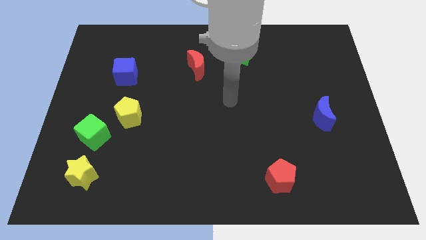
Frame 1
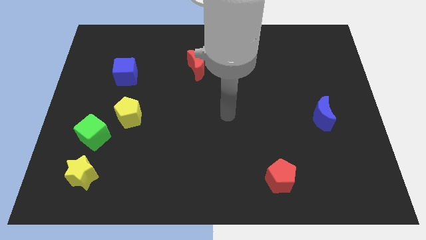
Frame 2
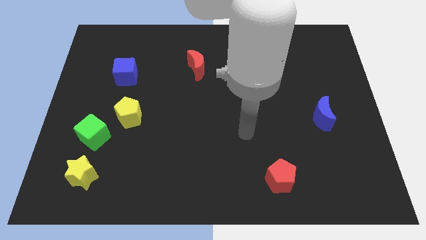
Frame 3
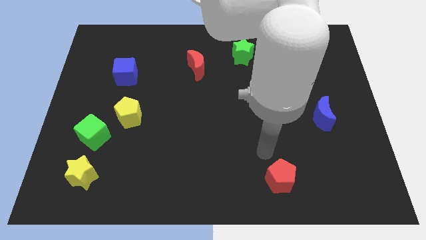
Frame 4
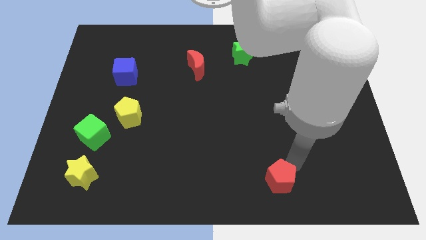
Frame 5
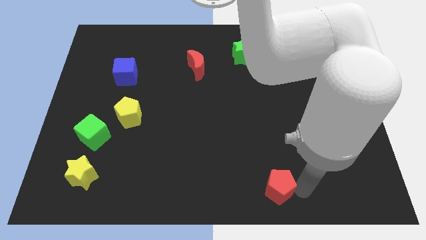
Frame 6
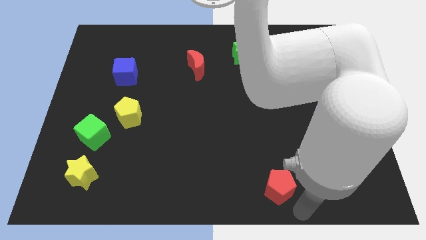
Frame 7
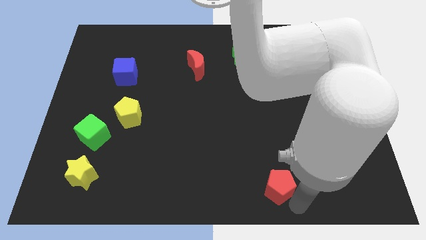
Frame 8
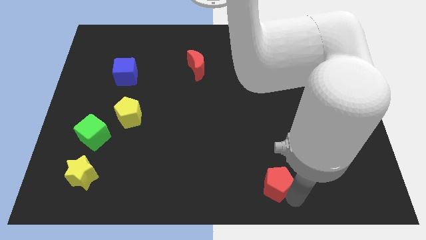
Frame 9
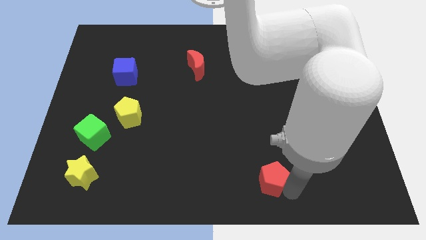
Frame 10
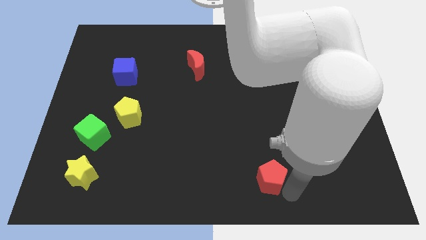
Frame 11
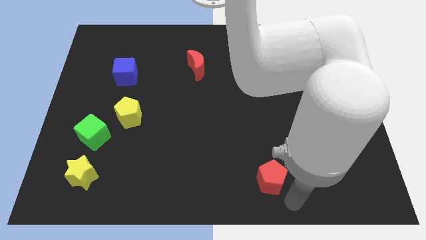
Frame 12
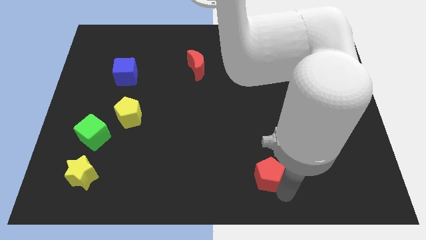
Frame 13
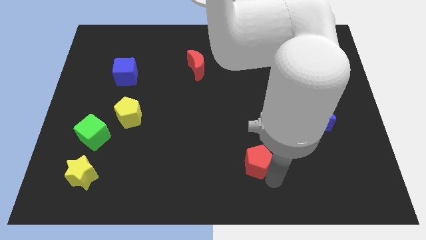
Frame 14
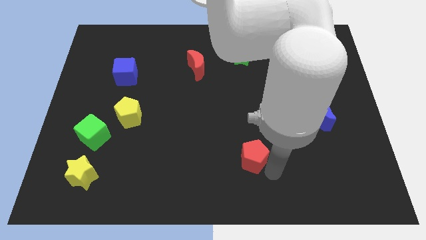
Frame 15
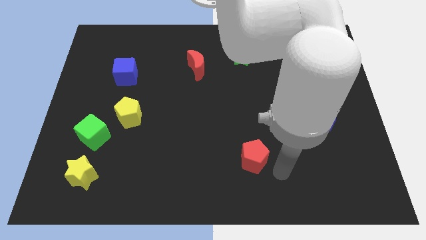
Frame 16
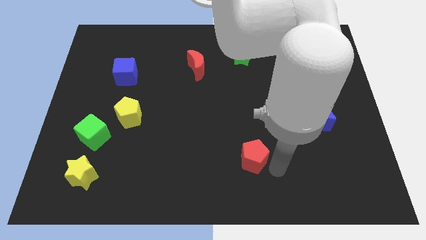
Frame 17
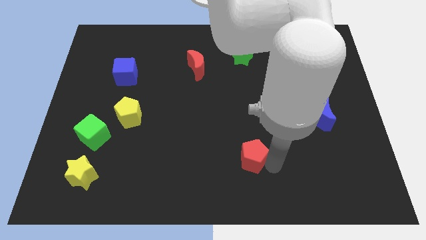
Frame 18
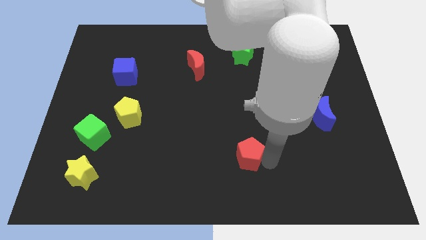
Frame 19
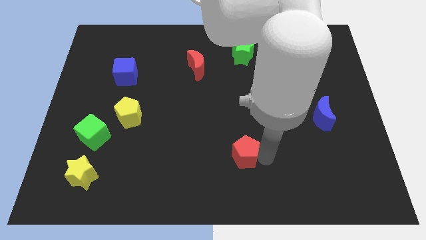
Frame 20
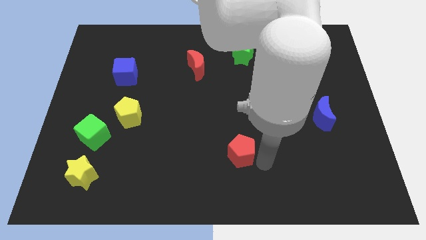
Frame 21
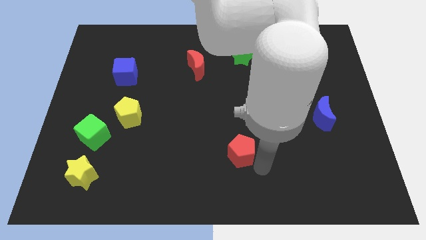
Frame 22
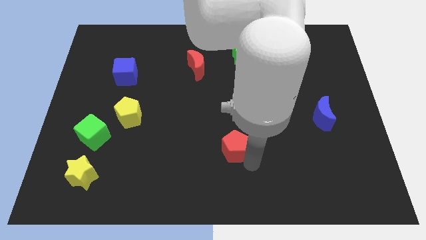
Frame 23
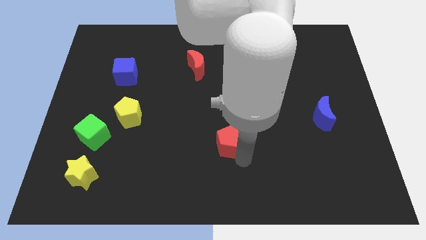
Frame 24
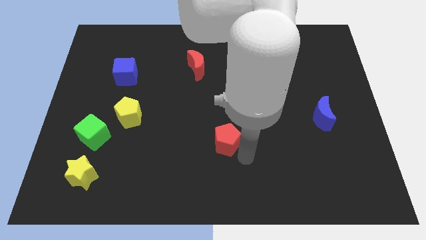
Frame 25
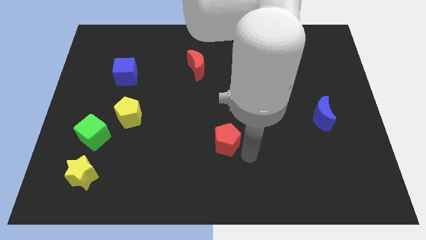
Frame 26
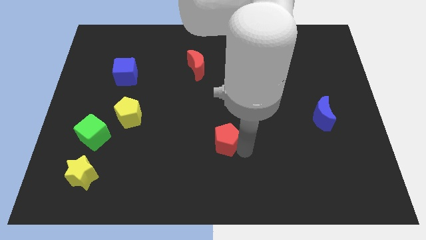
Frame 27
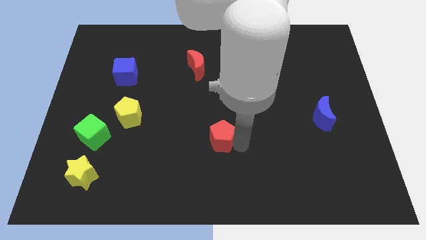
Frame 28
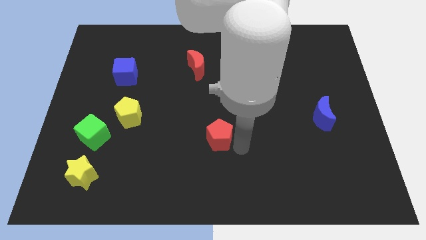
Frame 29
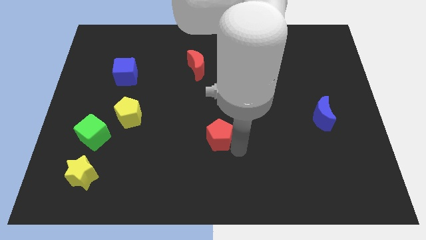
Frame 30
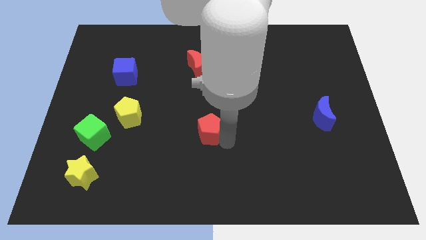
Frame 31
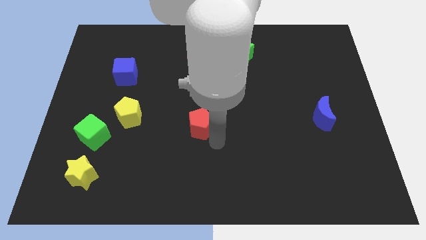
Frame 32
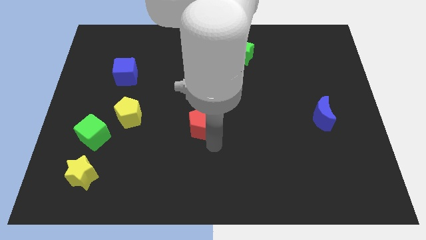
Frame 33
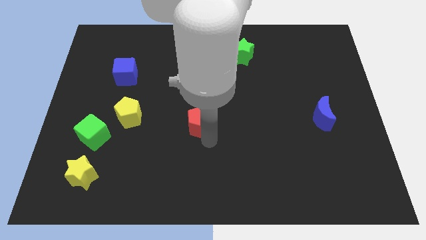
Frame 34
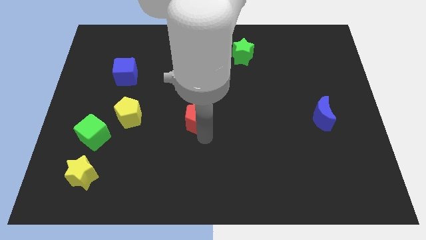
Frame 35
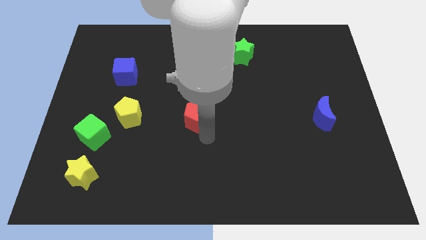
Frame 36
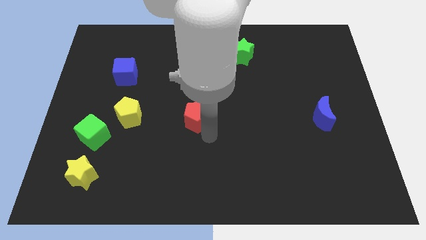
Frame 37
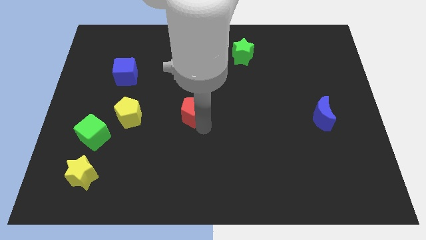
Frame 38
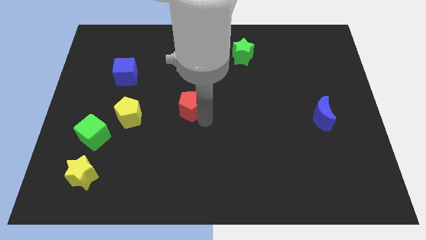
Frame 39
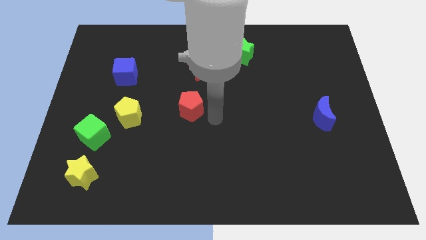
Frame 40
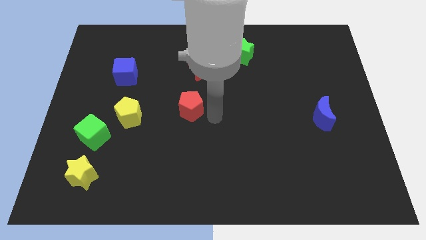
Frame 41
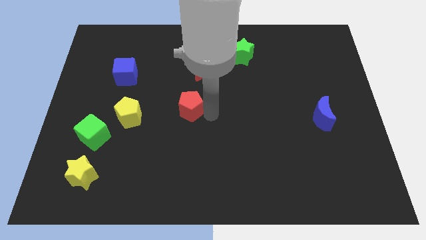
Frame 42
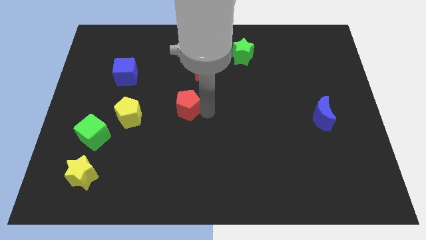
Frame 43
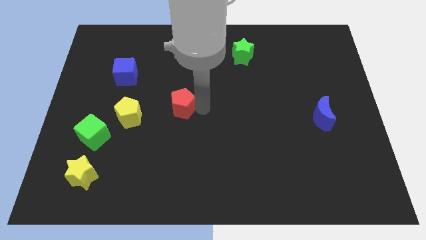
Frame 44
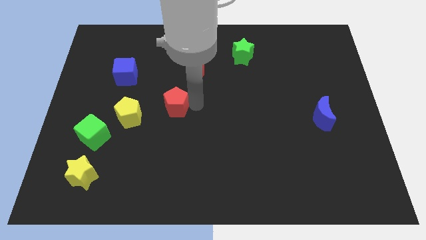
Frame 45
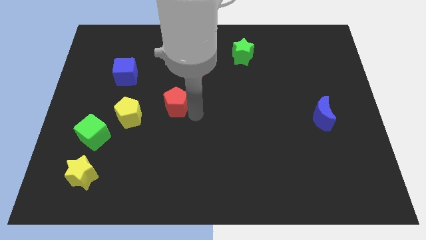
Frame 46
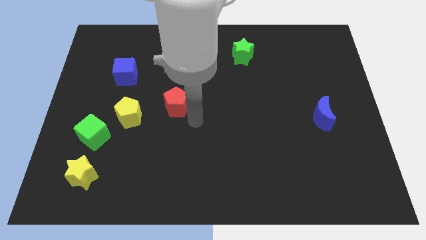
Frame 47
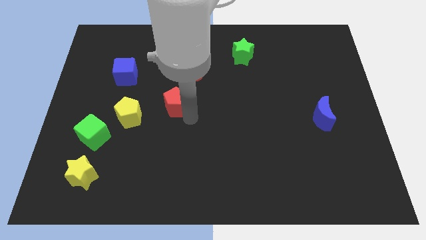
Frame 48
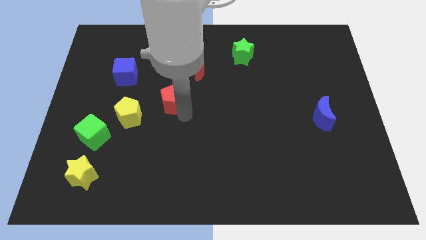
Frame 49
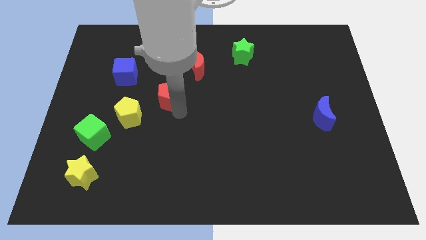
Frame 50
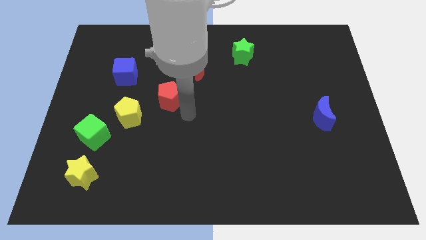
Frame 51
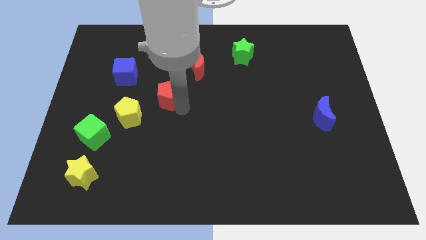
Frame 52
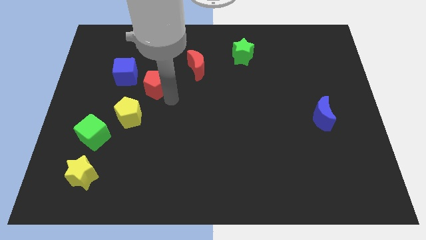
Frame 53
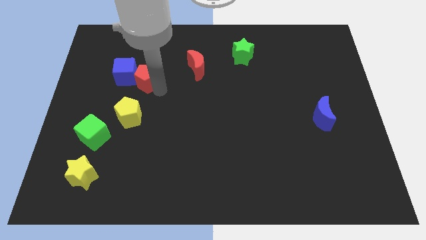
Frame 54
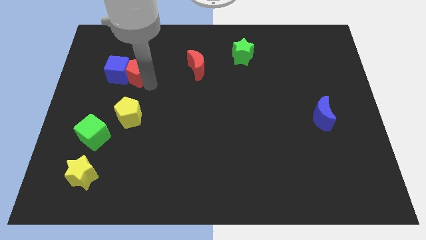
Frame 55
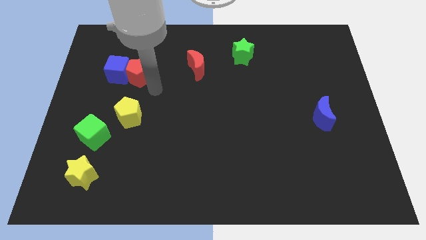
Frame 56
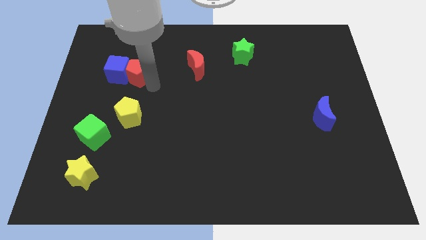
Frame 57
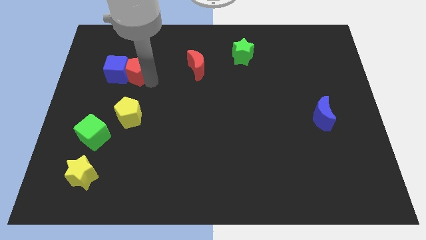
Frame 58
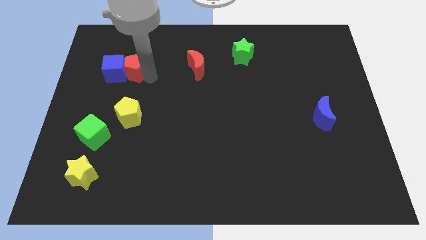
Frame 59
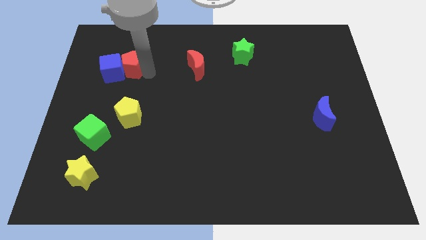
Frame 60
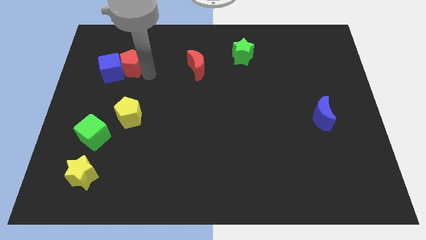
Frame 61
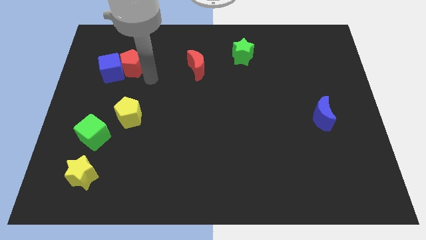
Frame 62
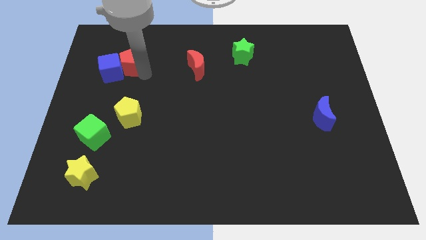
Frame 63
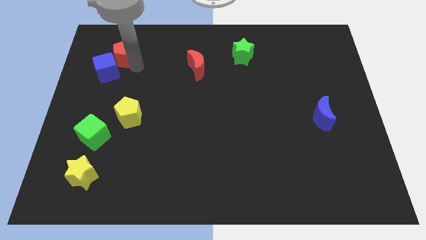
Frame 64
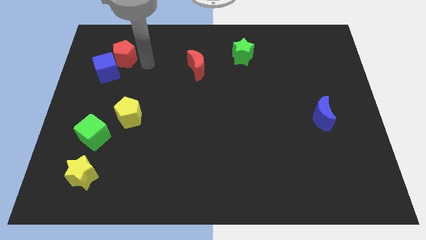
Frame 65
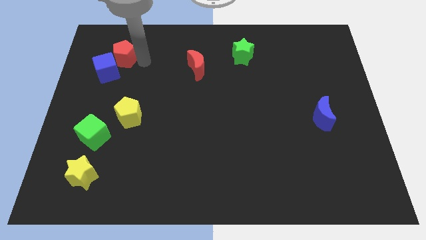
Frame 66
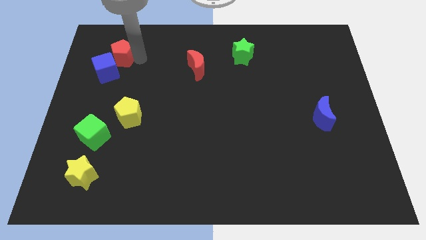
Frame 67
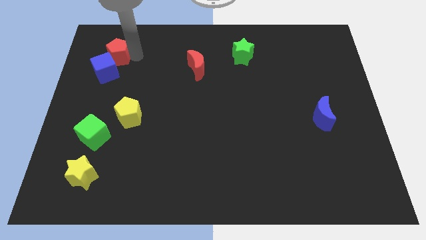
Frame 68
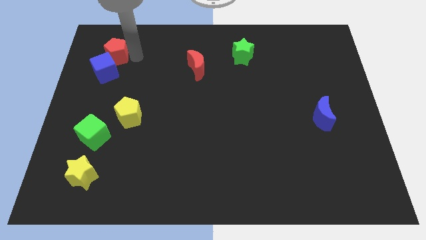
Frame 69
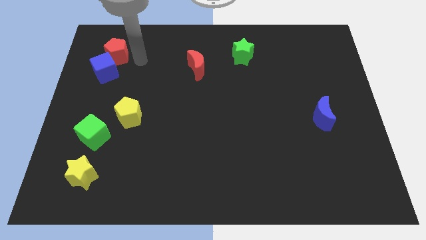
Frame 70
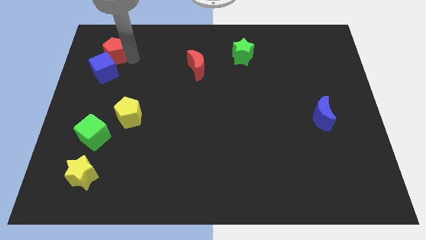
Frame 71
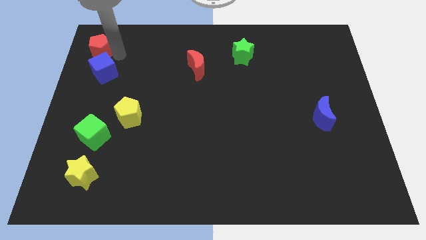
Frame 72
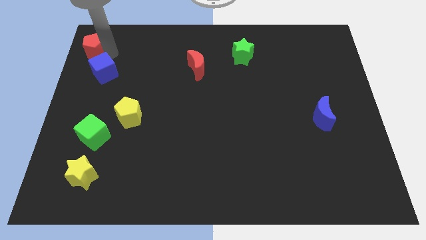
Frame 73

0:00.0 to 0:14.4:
put the red pentagon to the upper left corner
